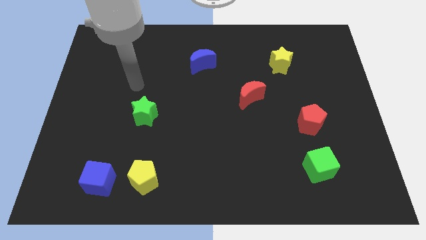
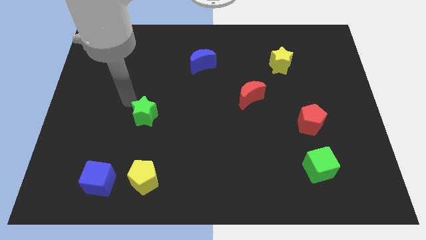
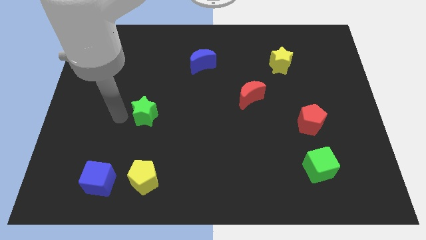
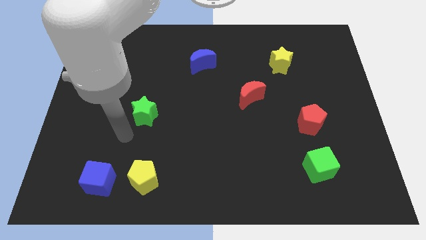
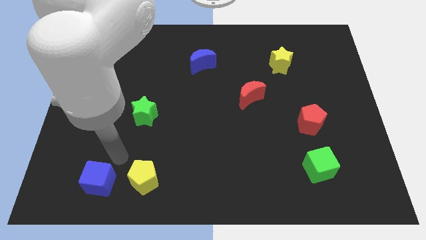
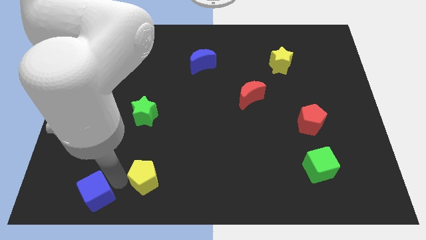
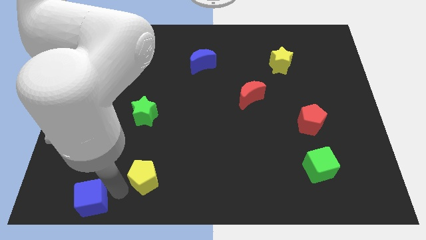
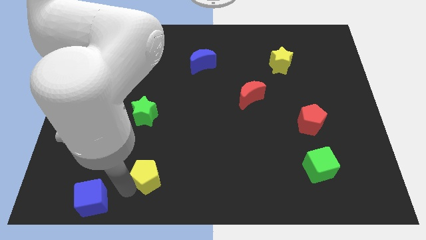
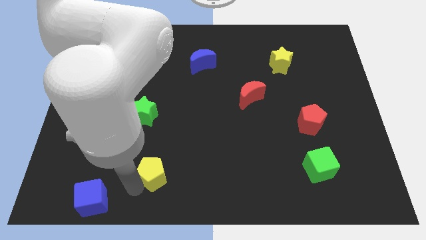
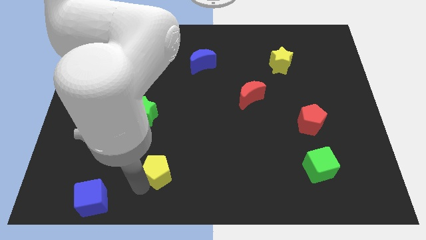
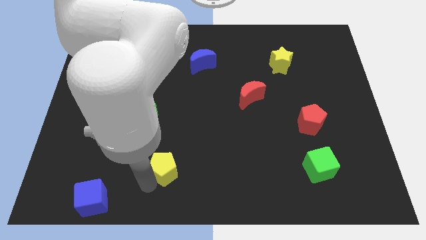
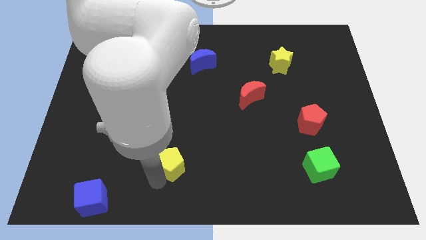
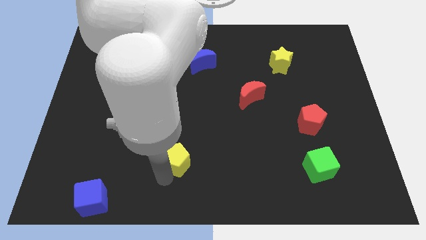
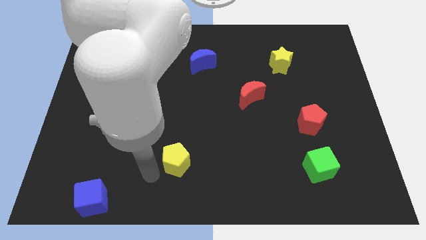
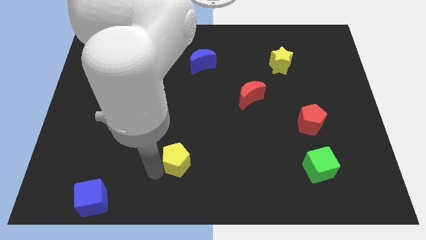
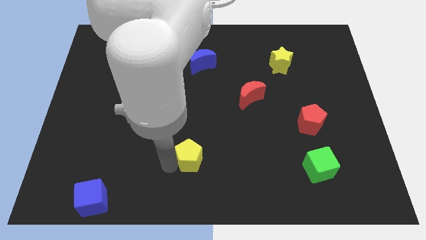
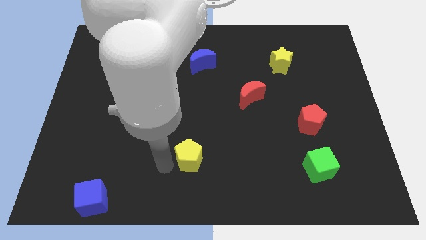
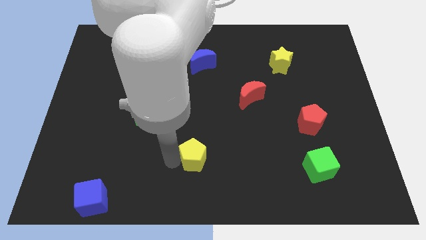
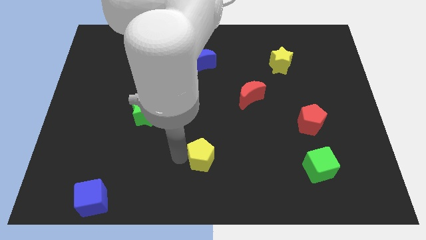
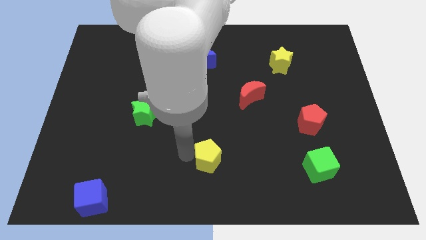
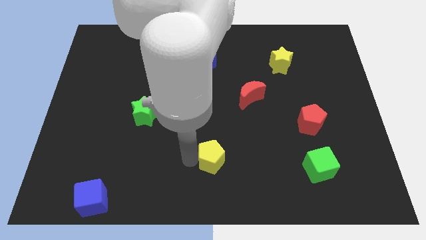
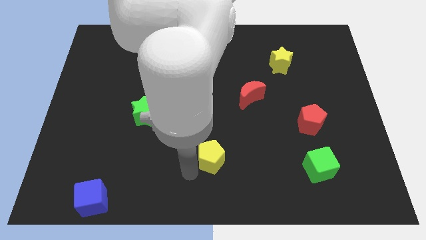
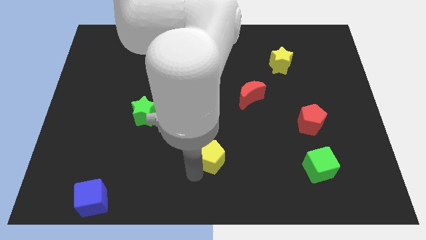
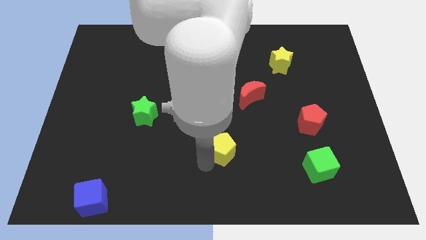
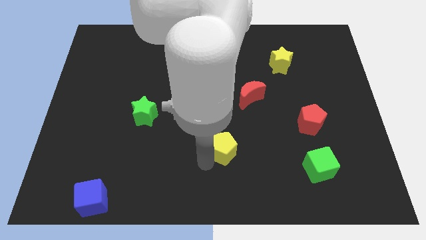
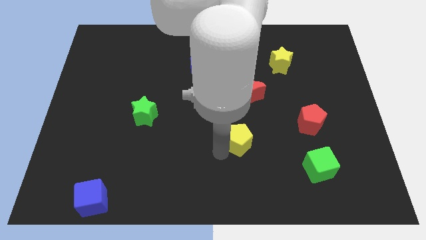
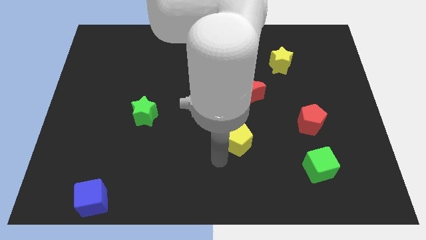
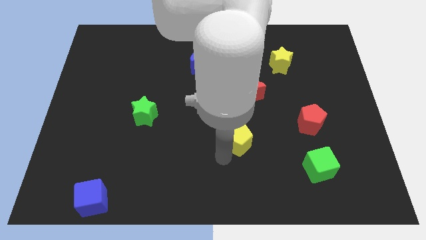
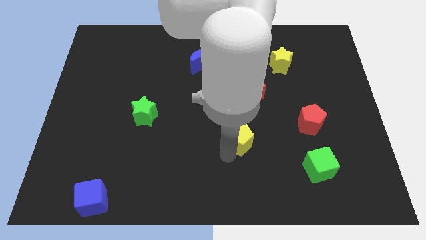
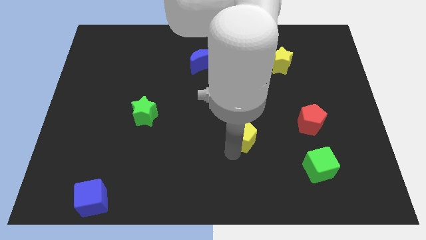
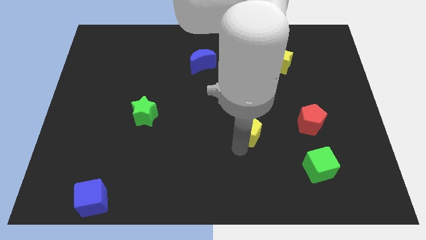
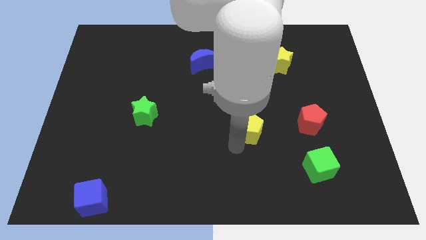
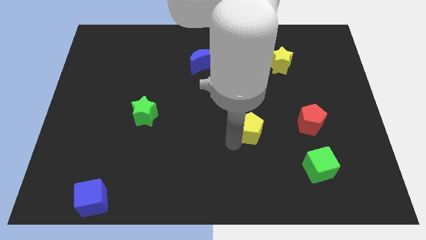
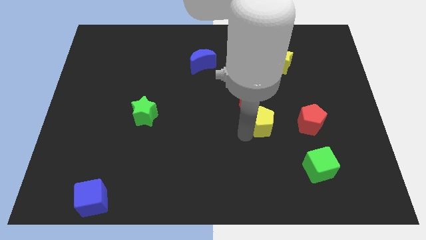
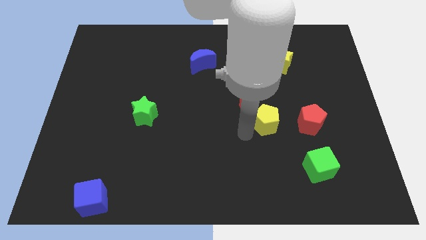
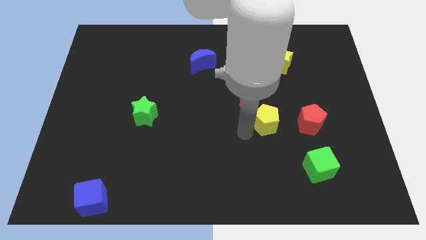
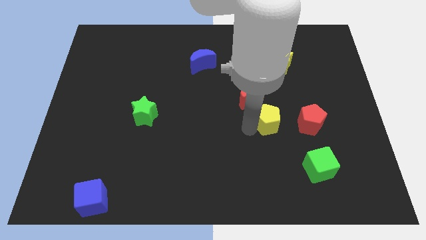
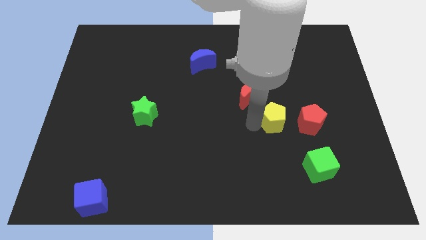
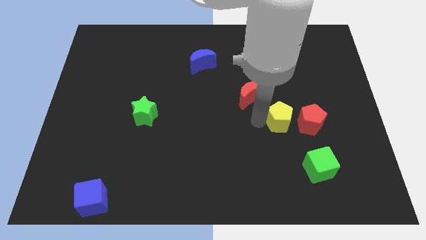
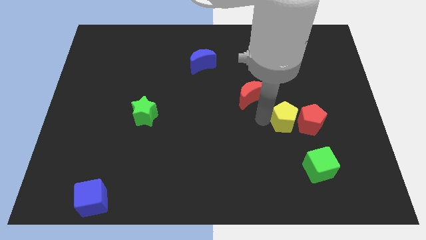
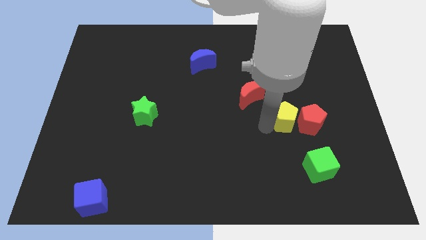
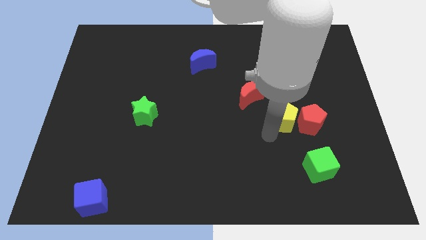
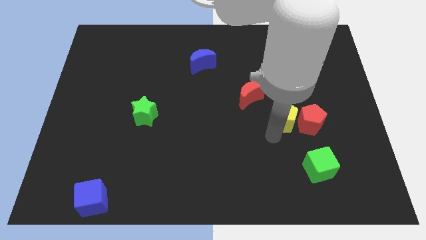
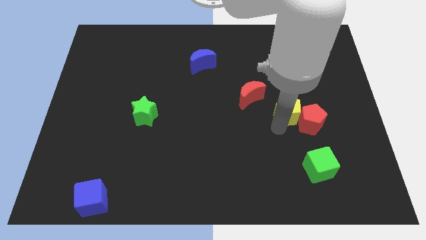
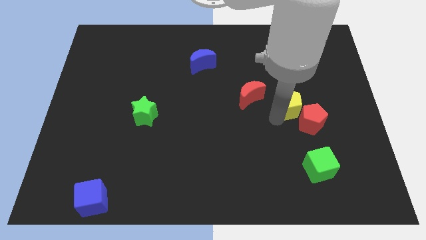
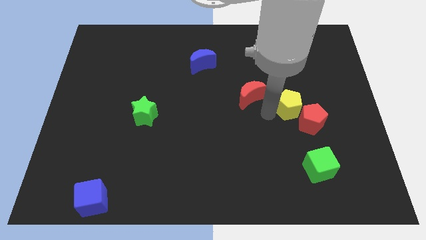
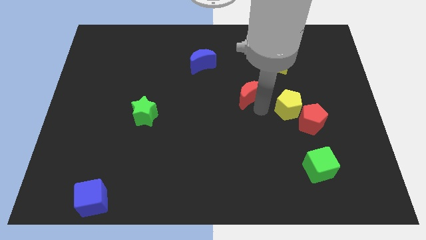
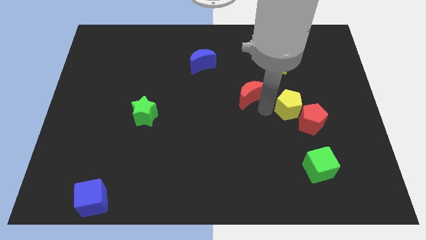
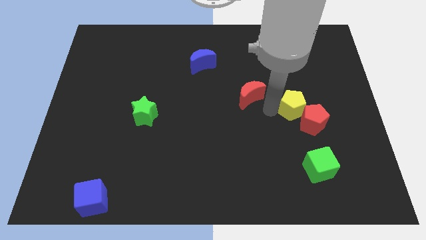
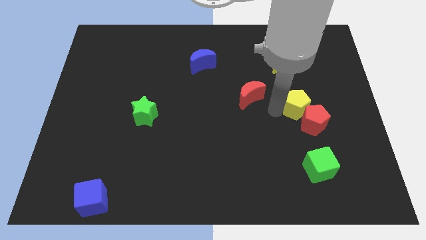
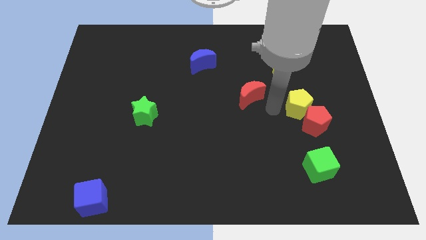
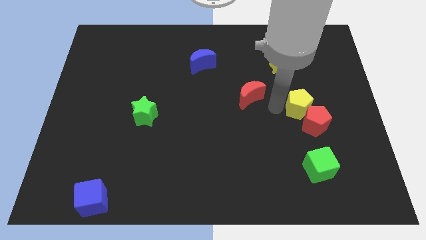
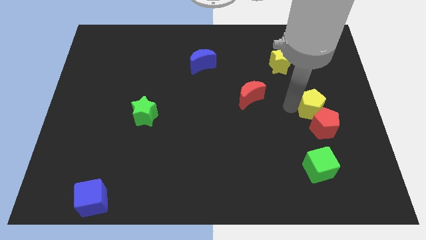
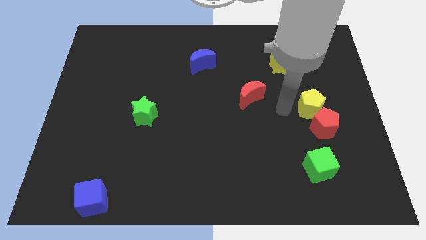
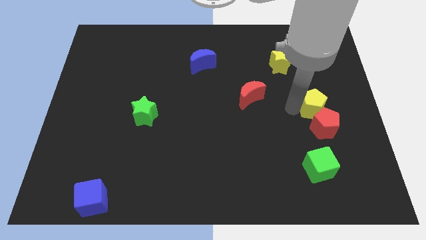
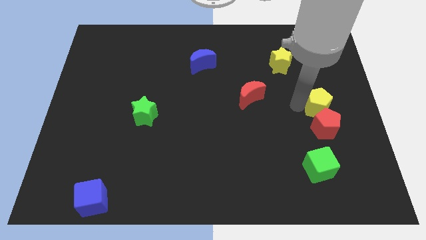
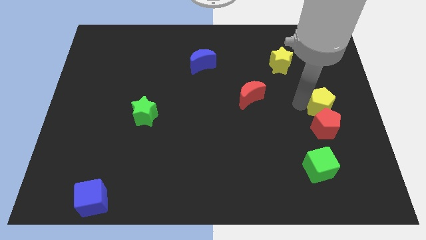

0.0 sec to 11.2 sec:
move the yellow pentagon to the center right
